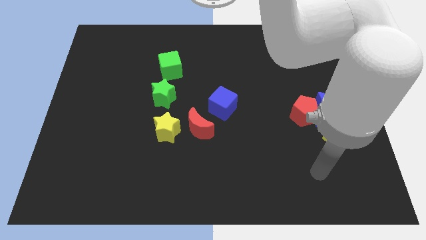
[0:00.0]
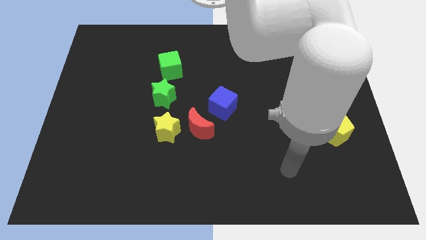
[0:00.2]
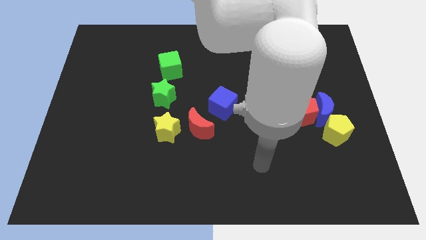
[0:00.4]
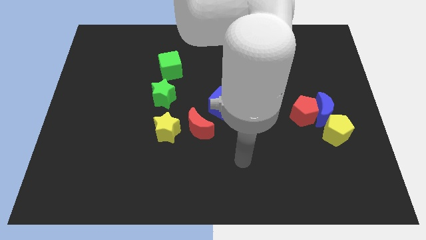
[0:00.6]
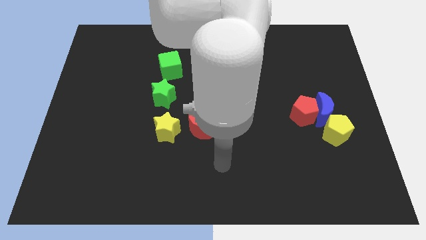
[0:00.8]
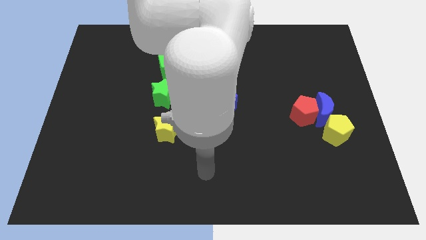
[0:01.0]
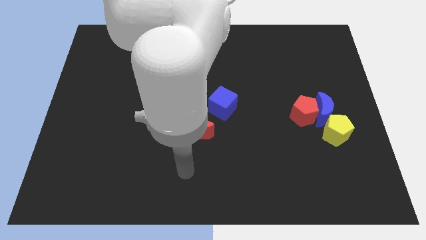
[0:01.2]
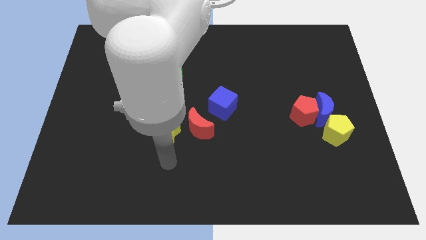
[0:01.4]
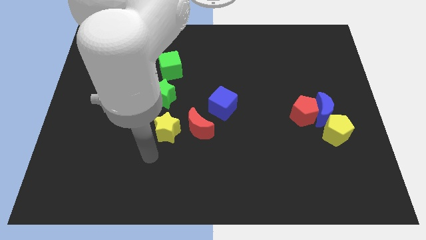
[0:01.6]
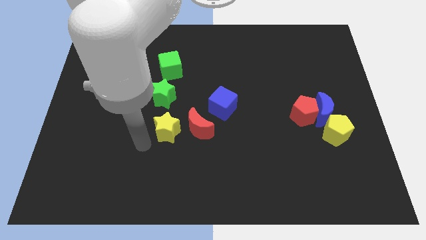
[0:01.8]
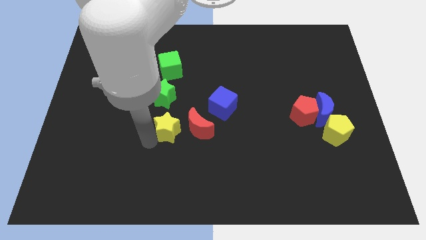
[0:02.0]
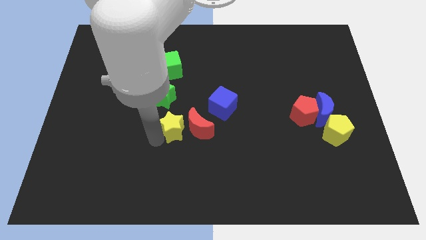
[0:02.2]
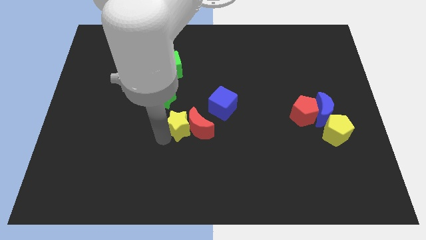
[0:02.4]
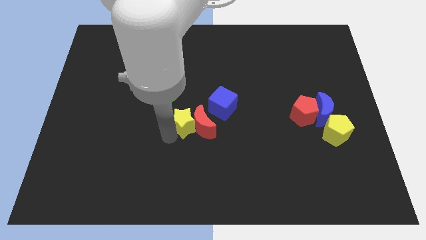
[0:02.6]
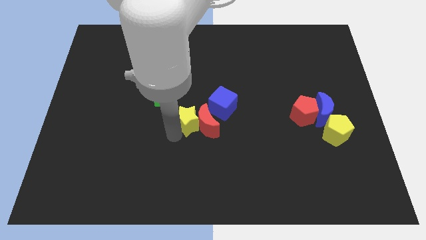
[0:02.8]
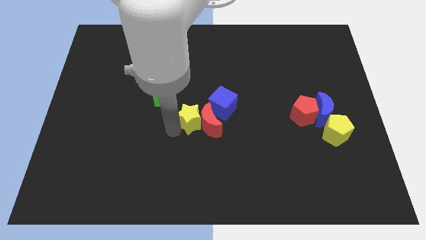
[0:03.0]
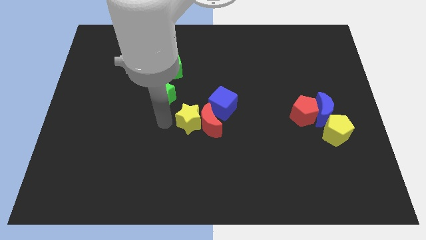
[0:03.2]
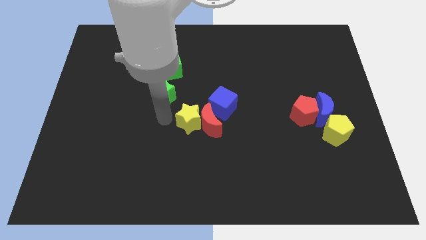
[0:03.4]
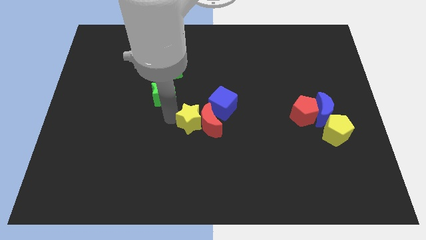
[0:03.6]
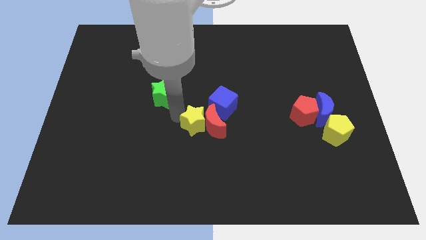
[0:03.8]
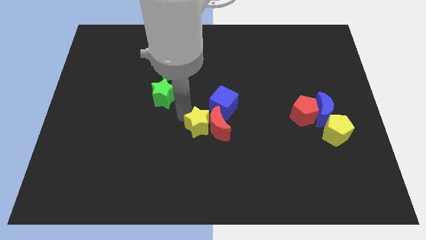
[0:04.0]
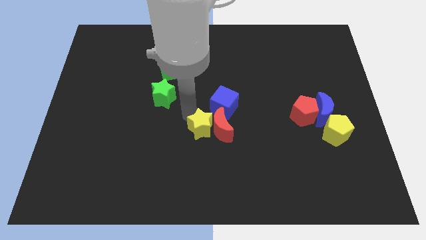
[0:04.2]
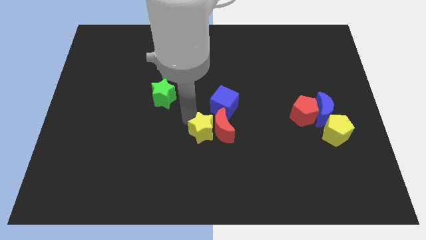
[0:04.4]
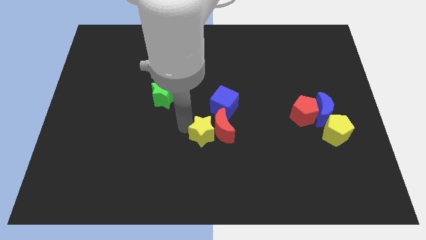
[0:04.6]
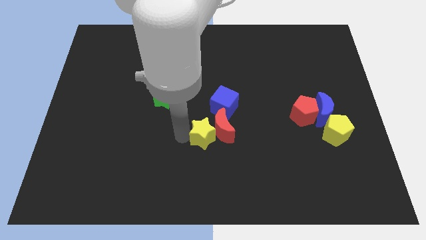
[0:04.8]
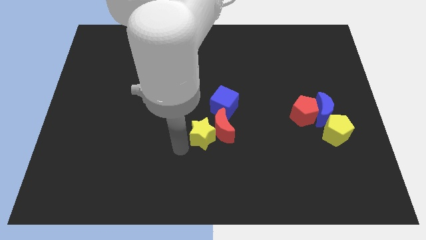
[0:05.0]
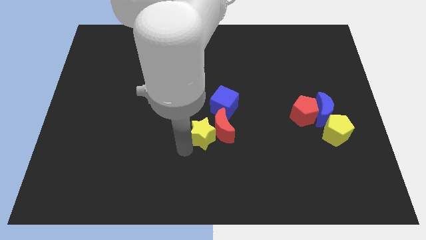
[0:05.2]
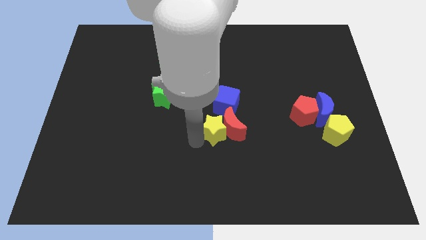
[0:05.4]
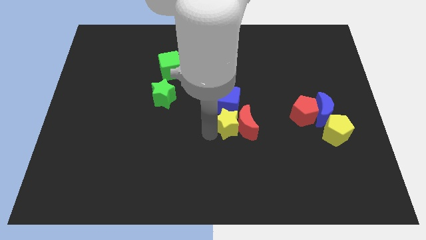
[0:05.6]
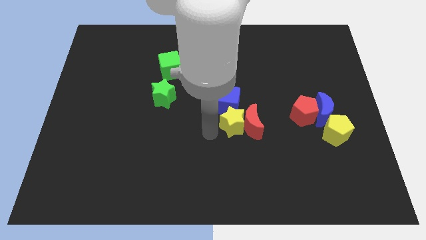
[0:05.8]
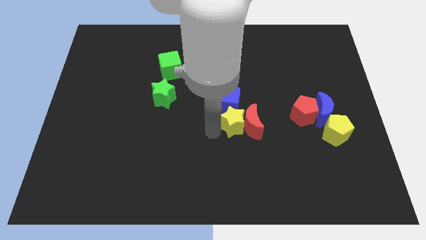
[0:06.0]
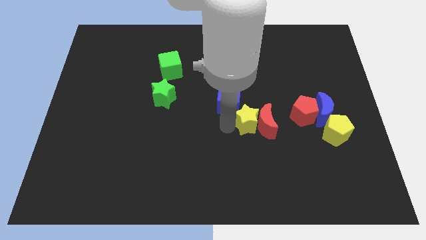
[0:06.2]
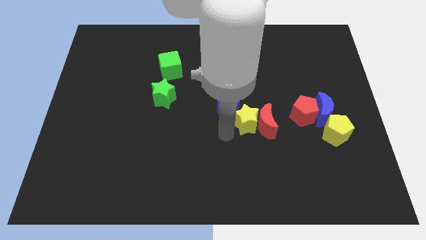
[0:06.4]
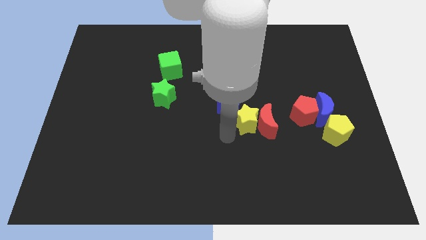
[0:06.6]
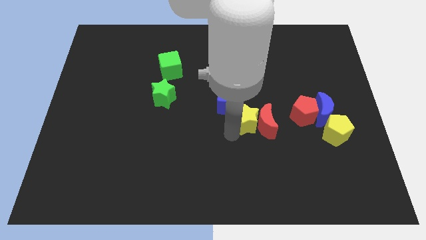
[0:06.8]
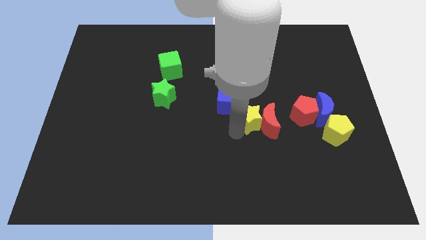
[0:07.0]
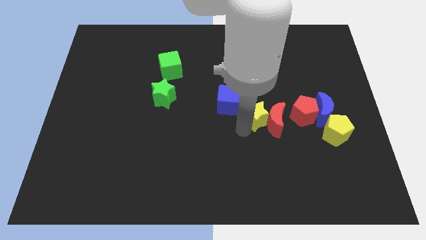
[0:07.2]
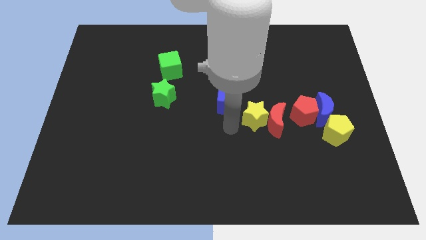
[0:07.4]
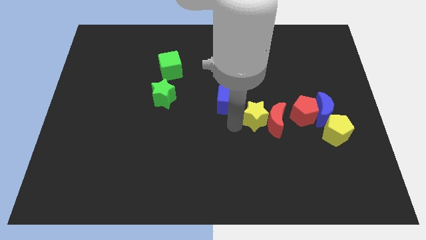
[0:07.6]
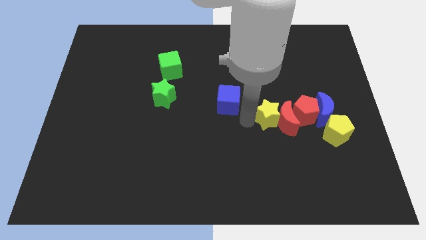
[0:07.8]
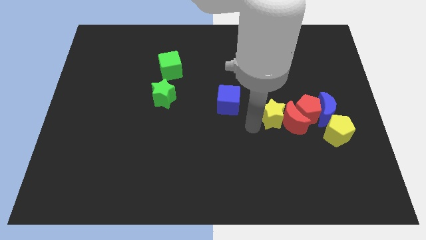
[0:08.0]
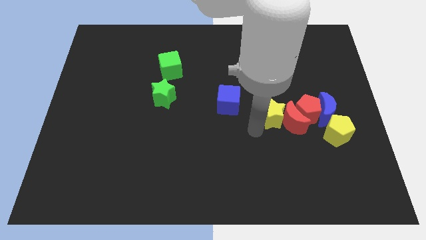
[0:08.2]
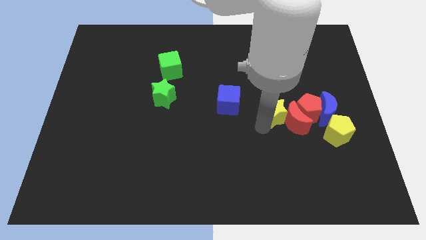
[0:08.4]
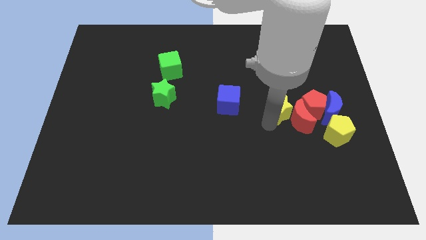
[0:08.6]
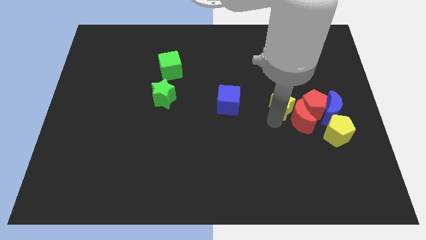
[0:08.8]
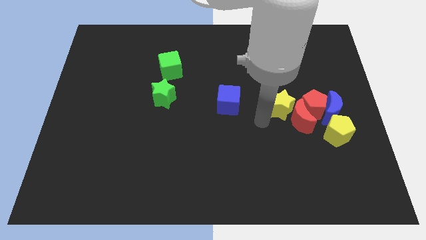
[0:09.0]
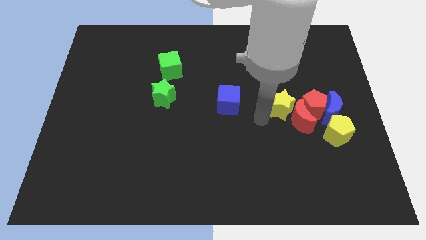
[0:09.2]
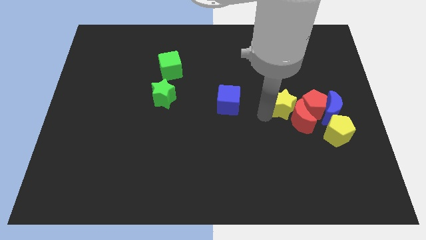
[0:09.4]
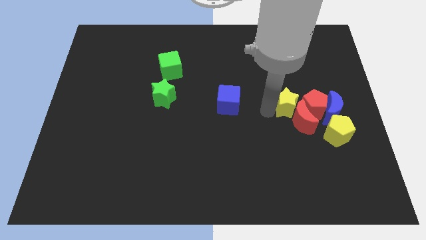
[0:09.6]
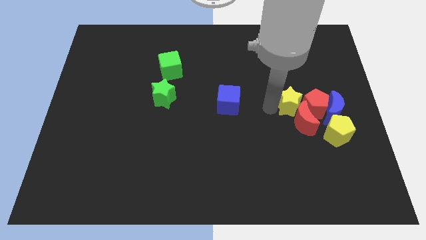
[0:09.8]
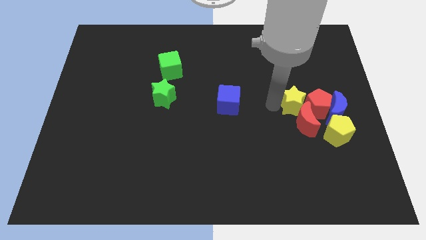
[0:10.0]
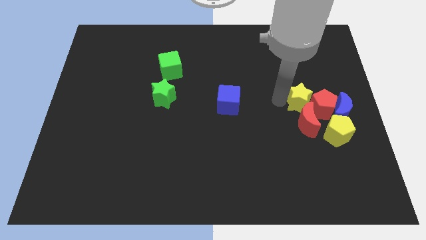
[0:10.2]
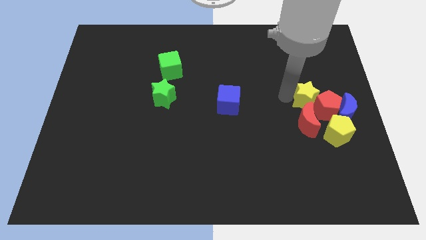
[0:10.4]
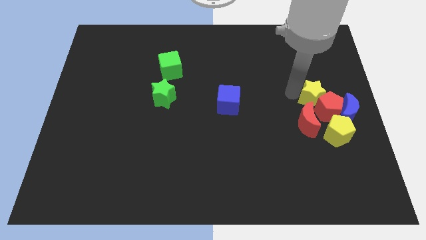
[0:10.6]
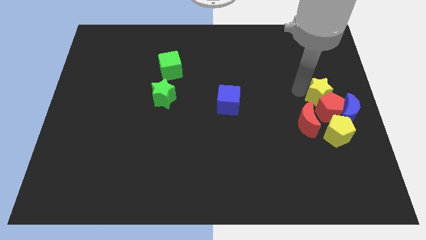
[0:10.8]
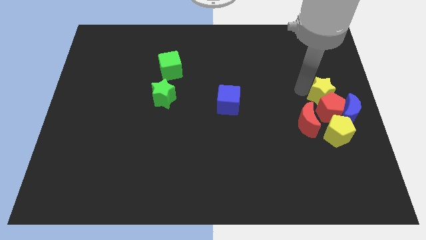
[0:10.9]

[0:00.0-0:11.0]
push the yellow star to the top right of the red pentagon
